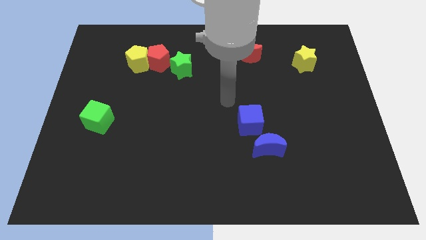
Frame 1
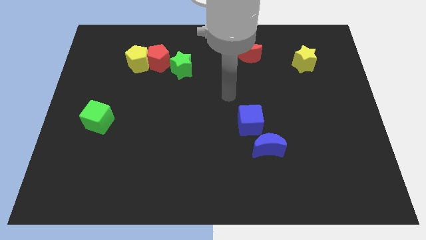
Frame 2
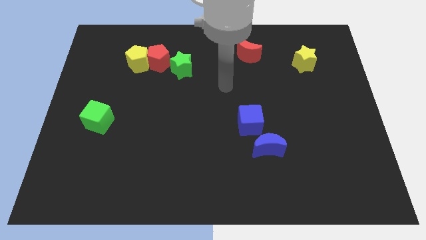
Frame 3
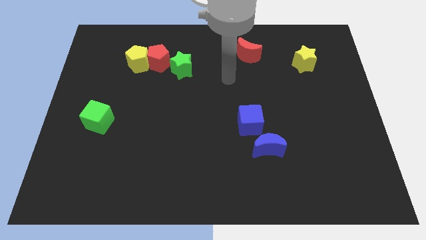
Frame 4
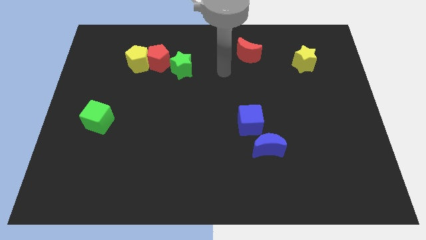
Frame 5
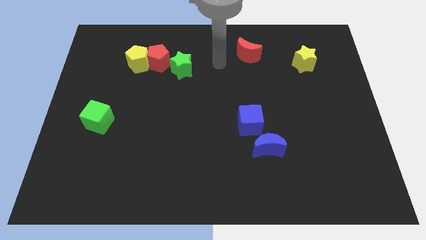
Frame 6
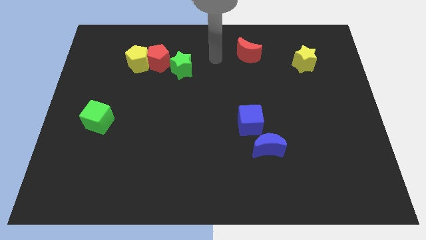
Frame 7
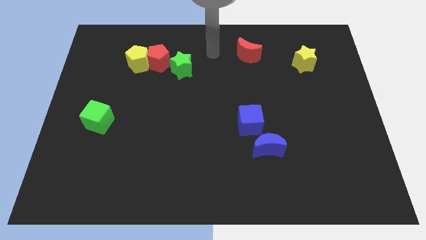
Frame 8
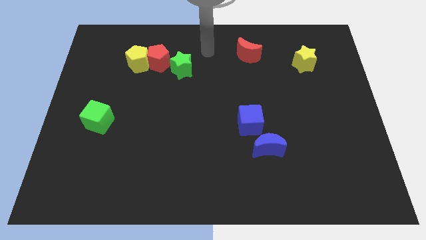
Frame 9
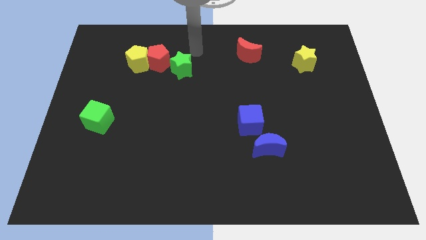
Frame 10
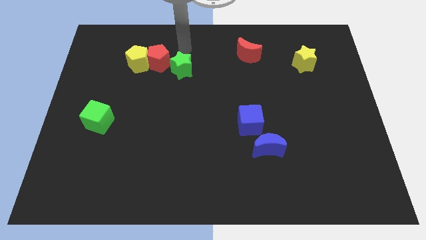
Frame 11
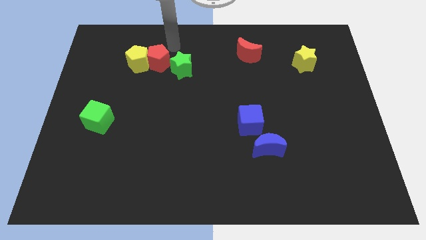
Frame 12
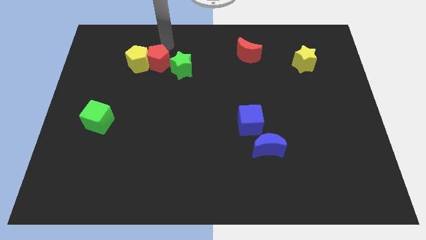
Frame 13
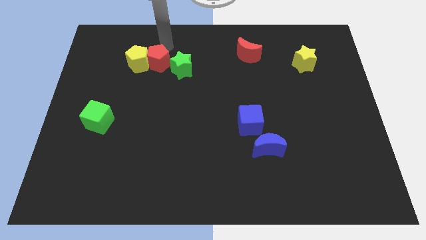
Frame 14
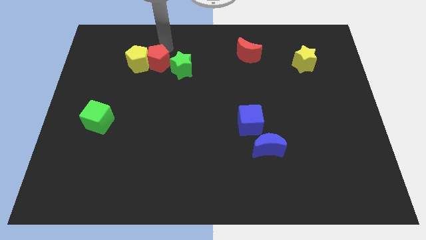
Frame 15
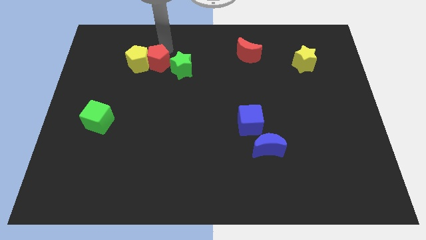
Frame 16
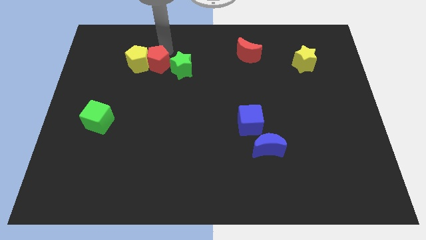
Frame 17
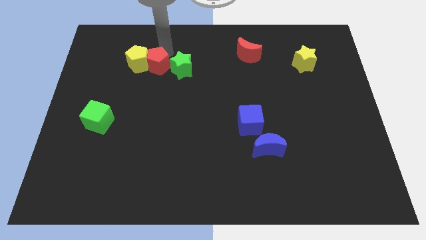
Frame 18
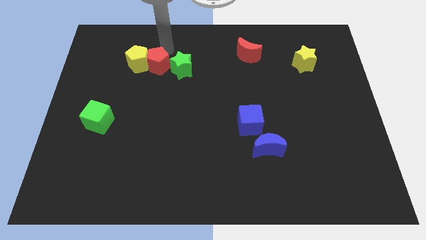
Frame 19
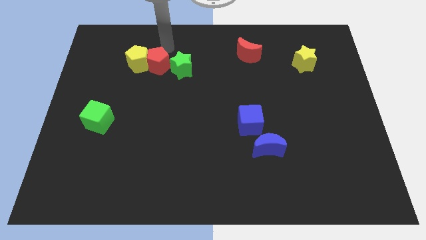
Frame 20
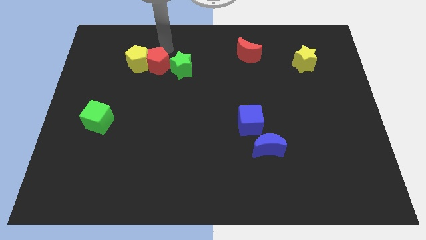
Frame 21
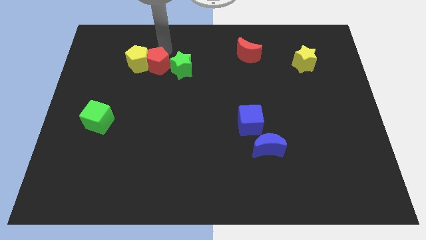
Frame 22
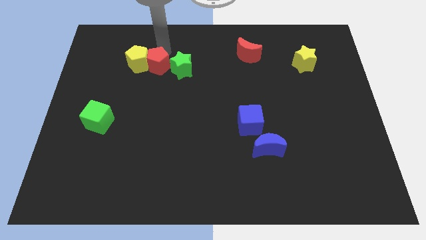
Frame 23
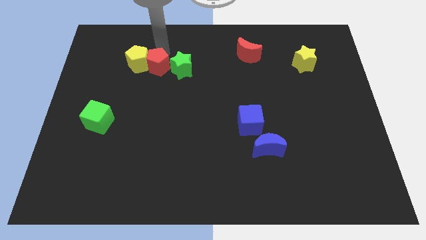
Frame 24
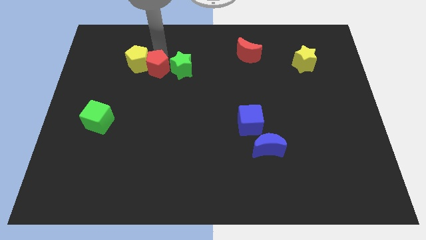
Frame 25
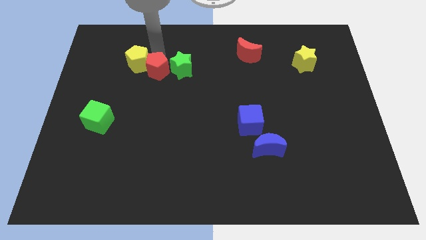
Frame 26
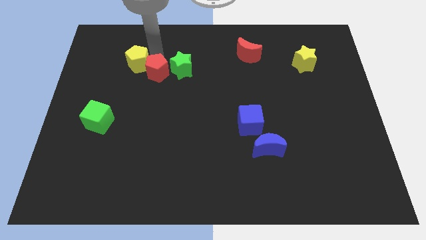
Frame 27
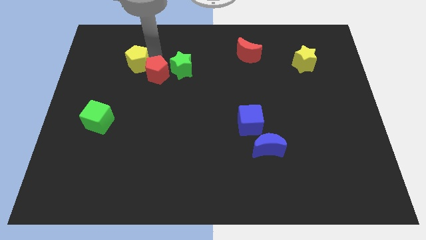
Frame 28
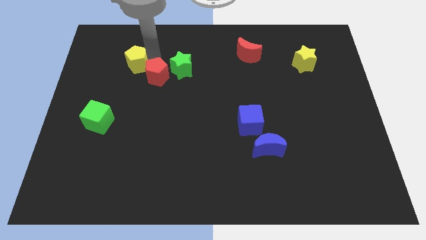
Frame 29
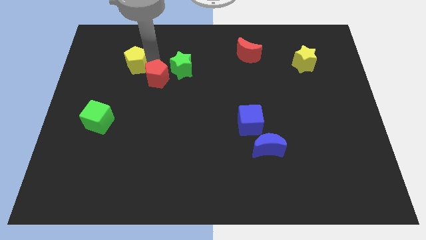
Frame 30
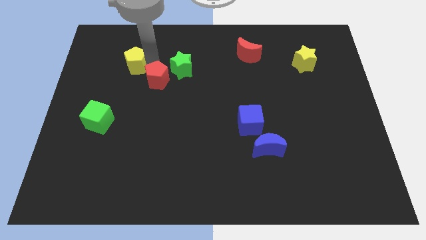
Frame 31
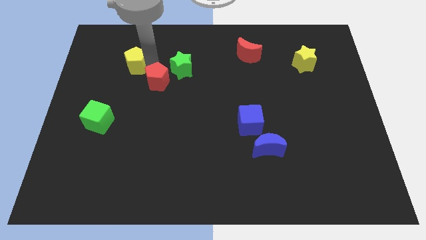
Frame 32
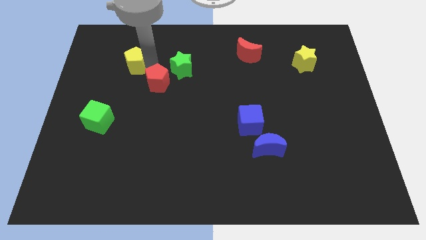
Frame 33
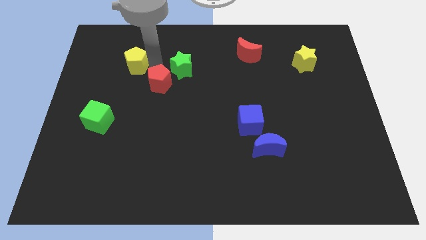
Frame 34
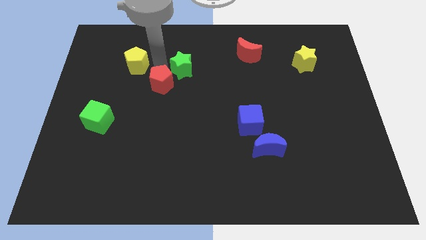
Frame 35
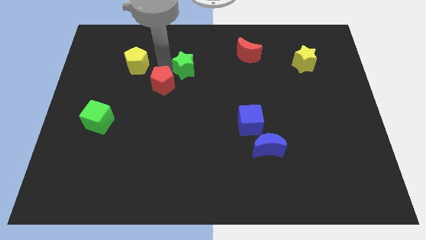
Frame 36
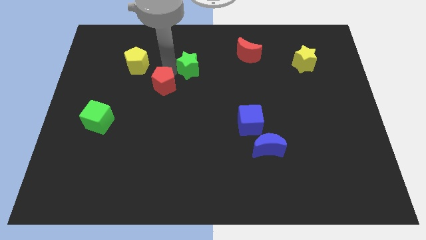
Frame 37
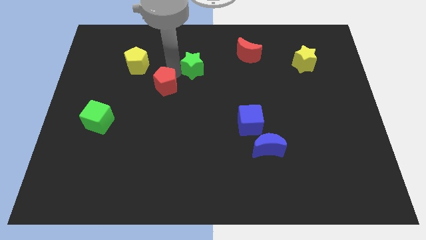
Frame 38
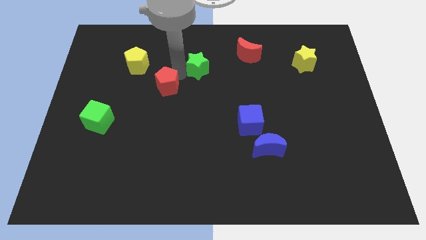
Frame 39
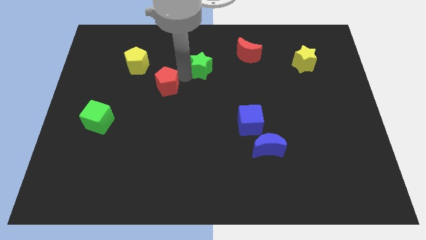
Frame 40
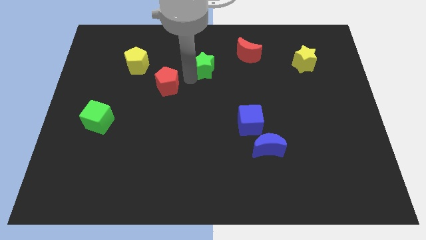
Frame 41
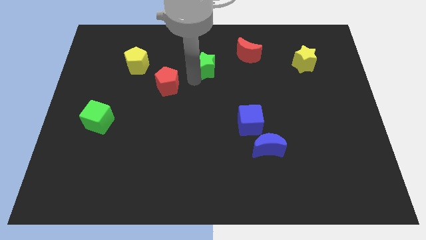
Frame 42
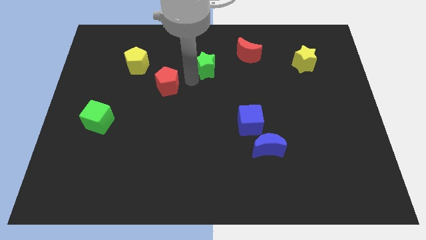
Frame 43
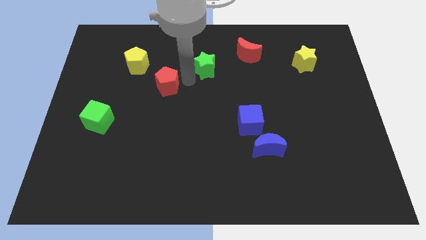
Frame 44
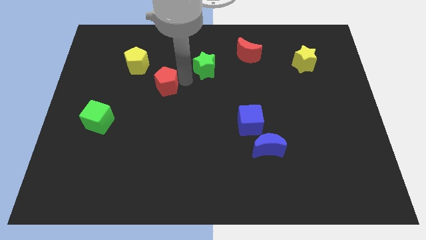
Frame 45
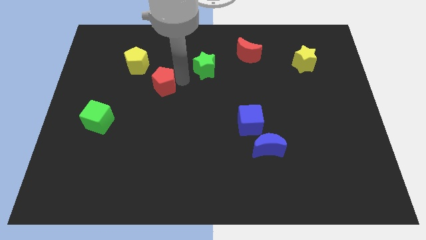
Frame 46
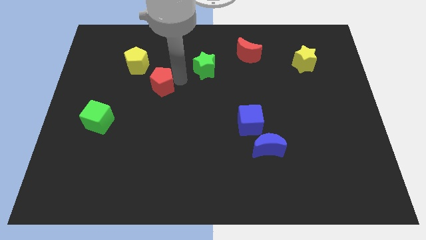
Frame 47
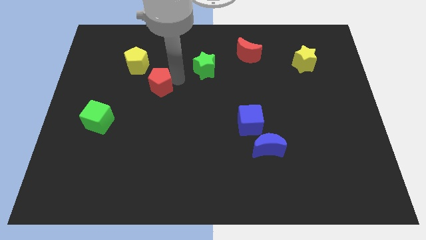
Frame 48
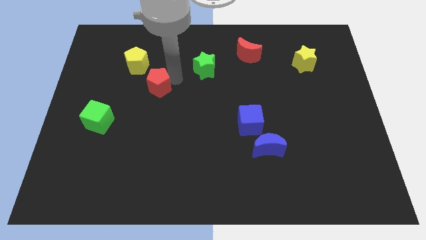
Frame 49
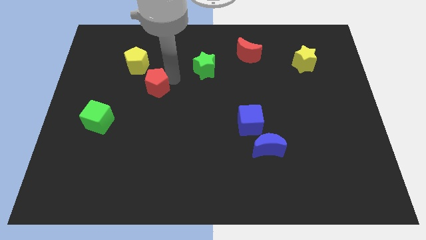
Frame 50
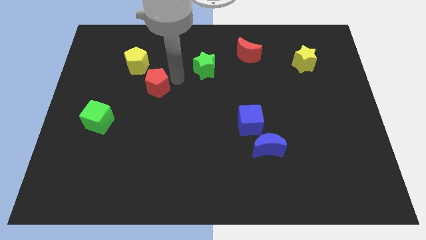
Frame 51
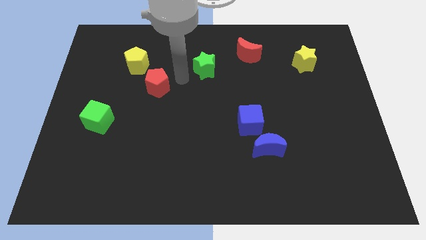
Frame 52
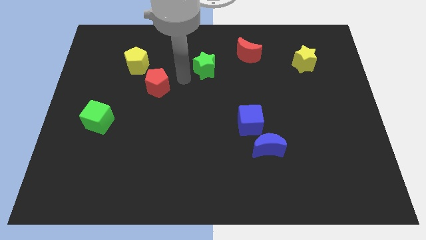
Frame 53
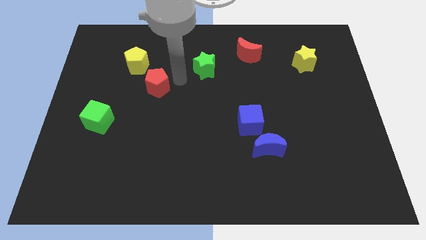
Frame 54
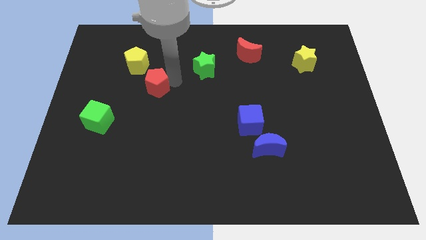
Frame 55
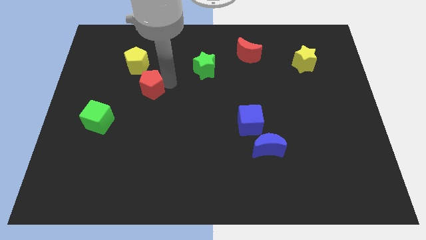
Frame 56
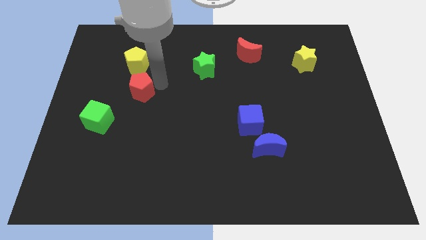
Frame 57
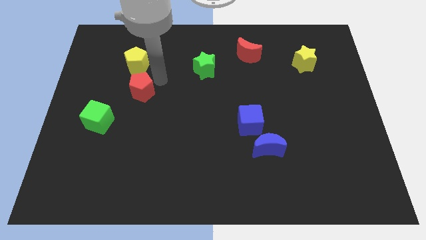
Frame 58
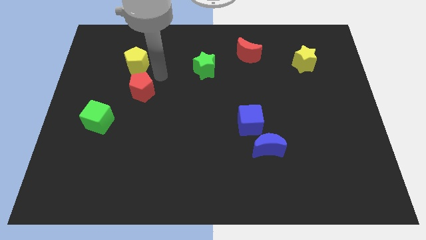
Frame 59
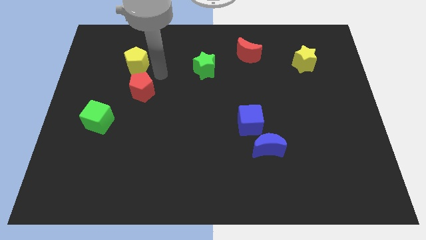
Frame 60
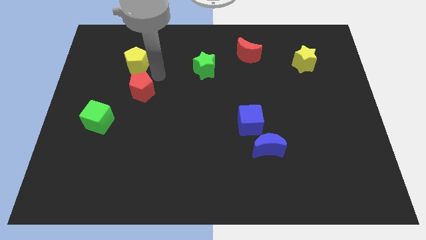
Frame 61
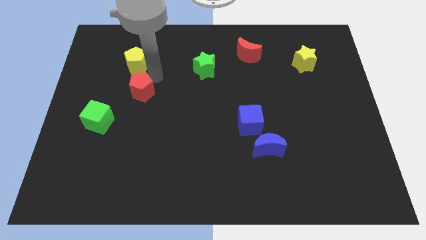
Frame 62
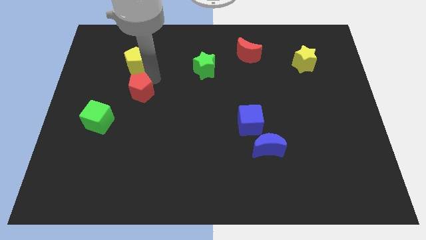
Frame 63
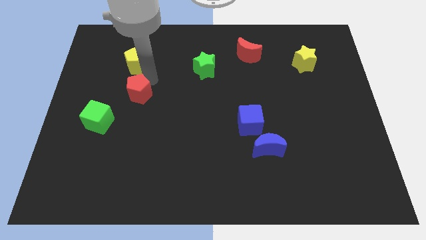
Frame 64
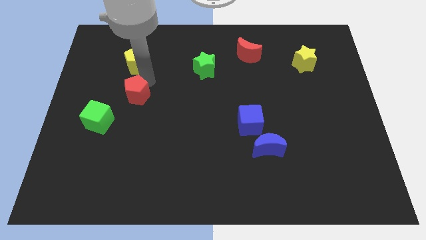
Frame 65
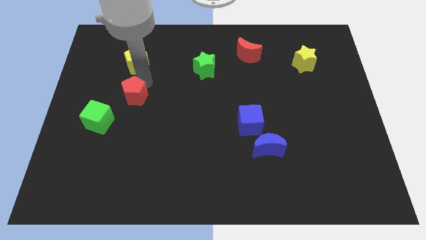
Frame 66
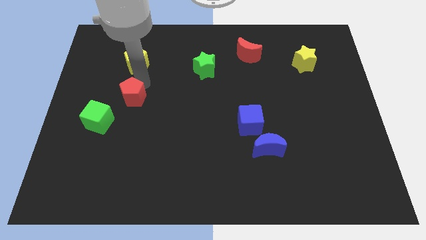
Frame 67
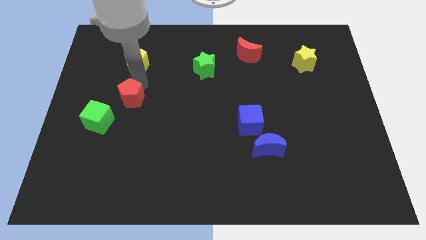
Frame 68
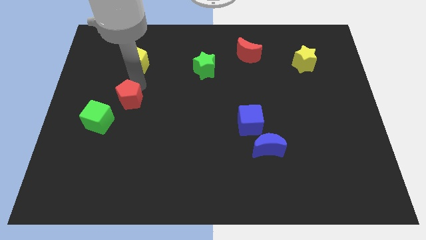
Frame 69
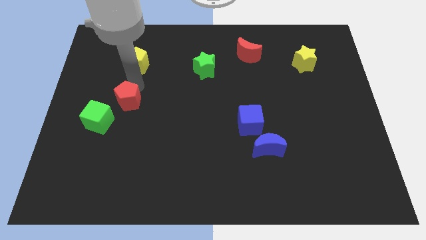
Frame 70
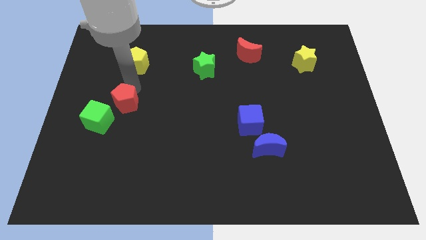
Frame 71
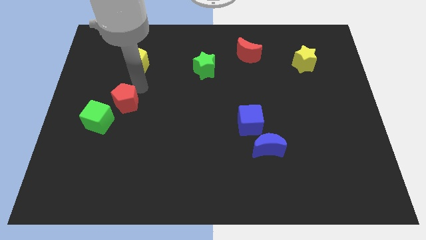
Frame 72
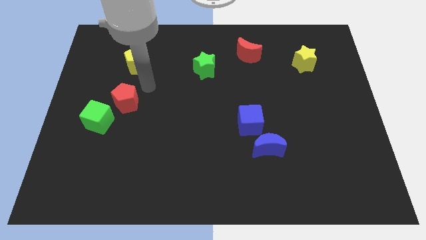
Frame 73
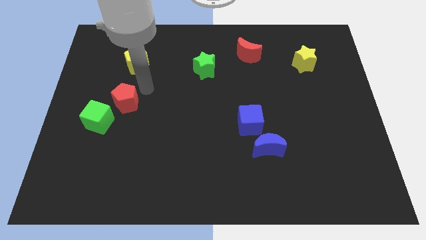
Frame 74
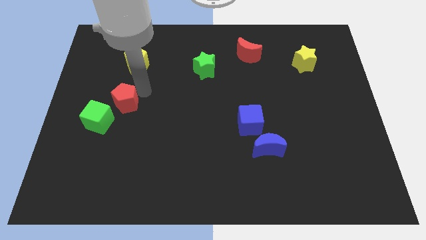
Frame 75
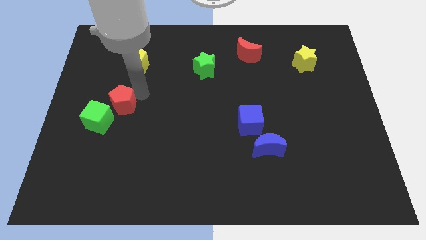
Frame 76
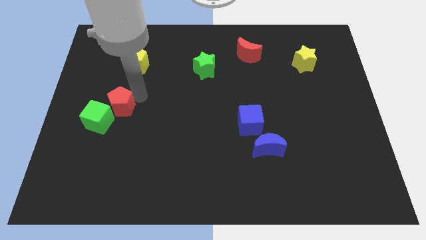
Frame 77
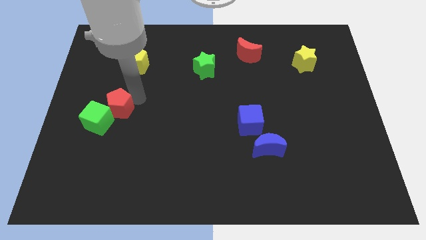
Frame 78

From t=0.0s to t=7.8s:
push the red pentagon close to the green cube
